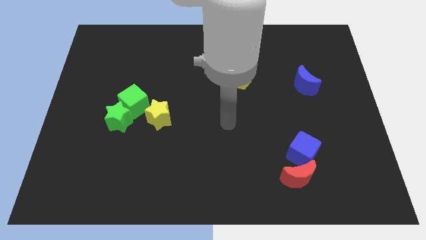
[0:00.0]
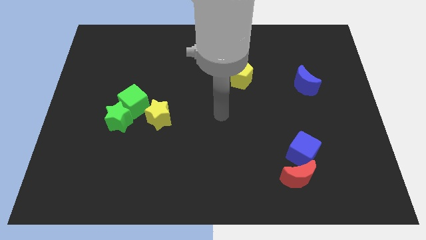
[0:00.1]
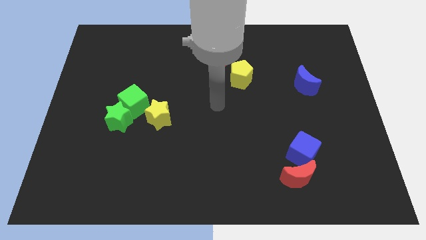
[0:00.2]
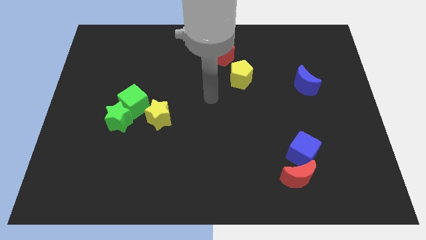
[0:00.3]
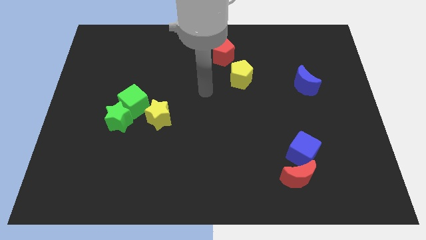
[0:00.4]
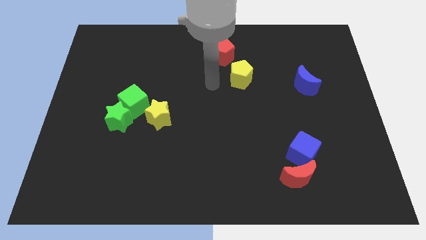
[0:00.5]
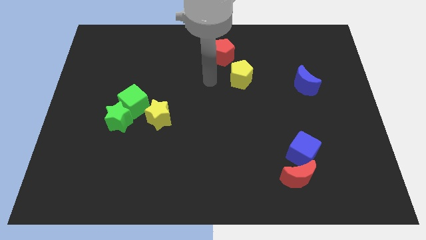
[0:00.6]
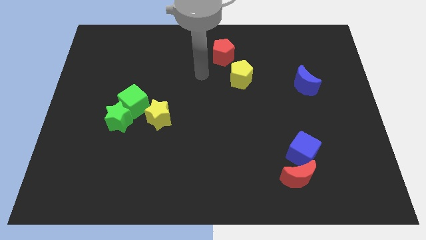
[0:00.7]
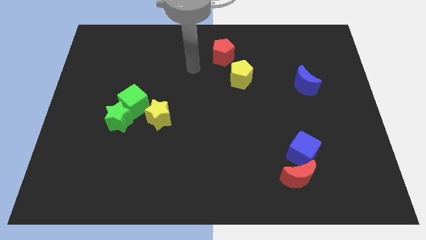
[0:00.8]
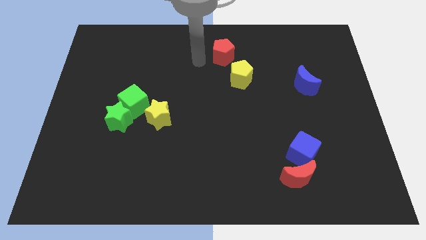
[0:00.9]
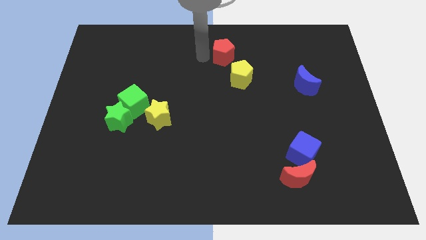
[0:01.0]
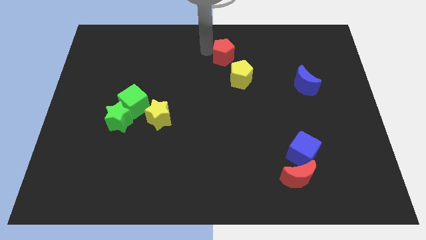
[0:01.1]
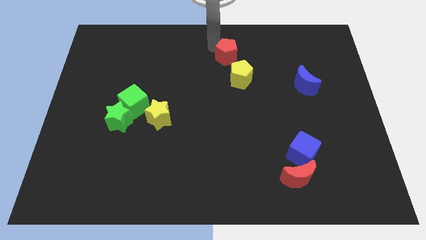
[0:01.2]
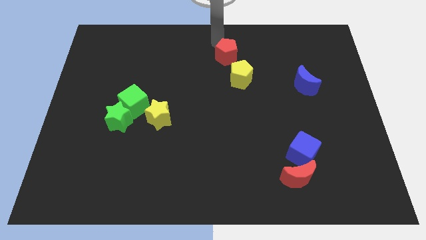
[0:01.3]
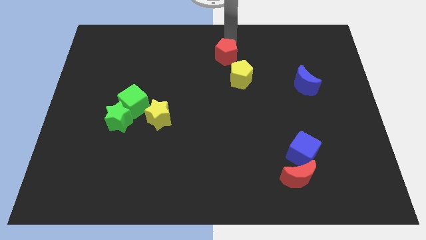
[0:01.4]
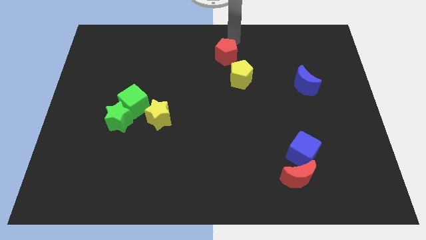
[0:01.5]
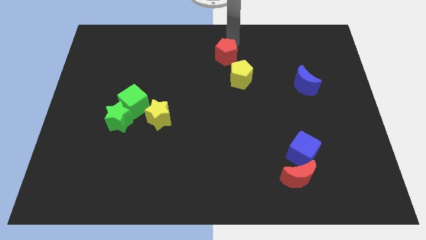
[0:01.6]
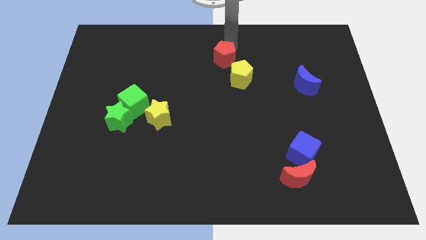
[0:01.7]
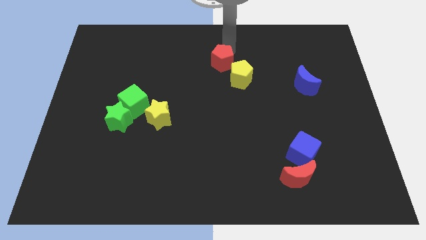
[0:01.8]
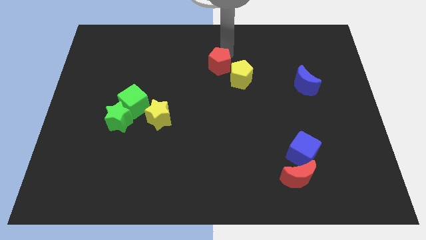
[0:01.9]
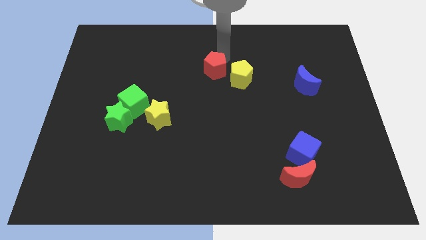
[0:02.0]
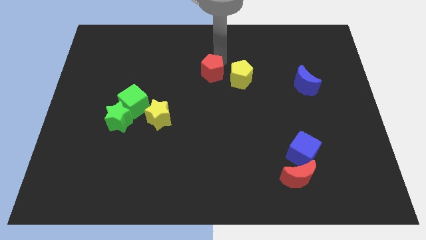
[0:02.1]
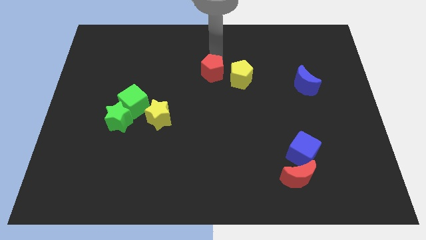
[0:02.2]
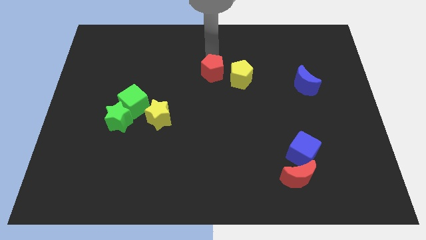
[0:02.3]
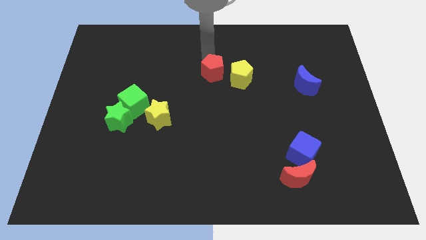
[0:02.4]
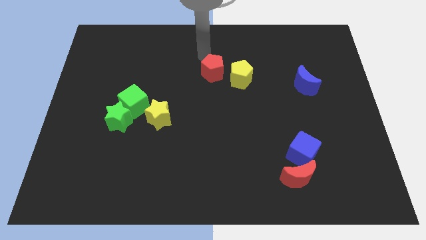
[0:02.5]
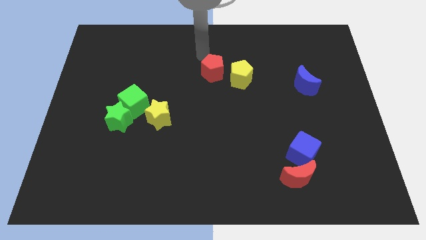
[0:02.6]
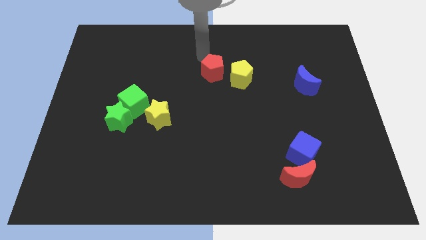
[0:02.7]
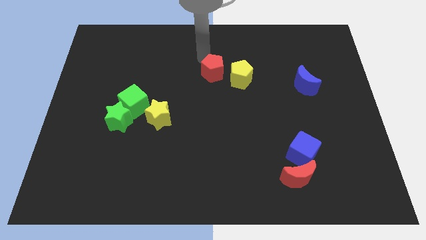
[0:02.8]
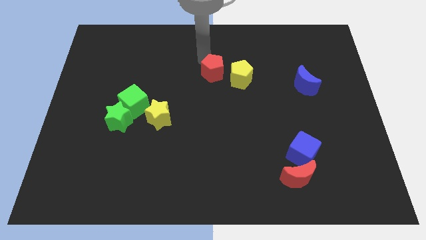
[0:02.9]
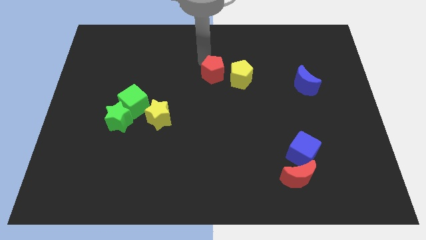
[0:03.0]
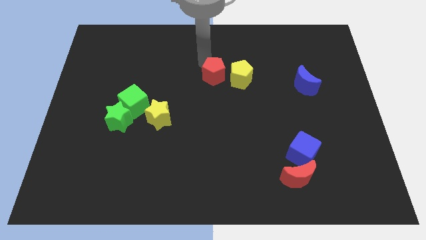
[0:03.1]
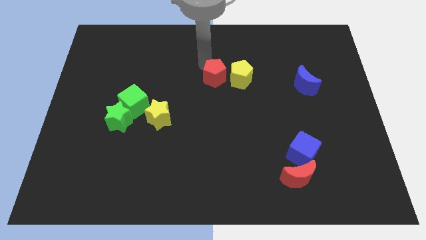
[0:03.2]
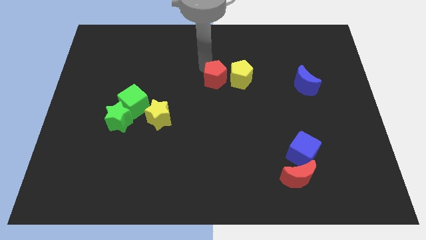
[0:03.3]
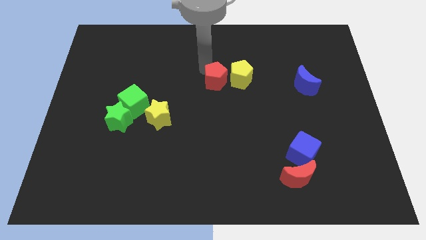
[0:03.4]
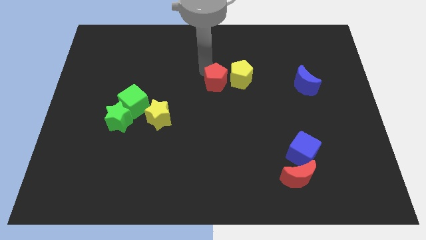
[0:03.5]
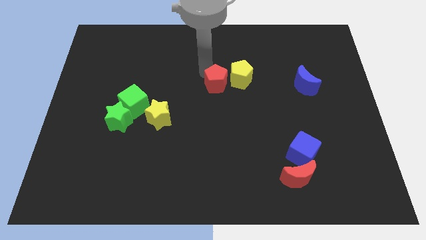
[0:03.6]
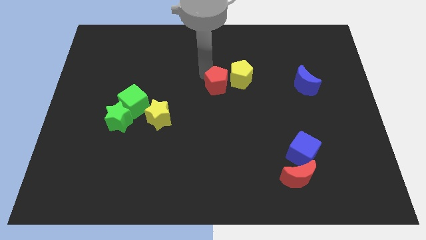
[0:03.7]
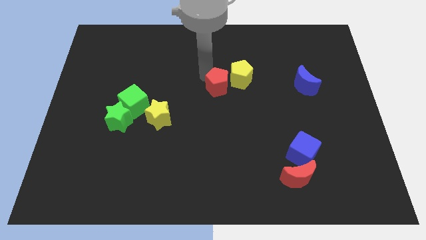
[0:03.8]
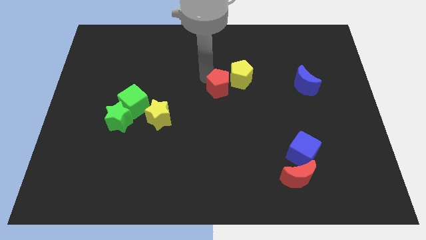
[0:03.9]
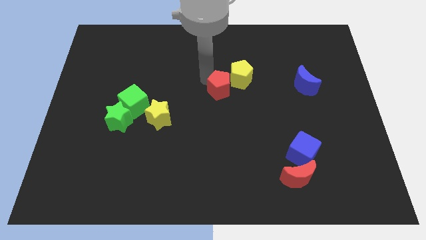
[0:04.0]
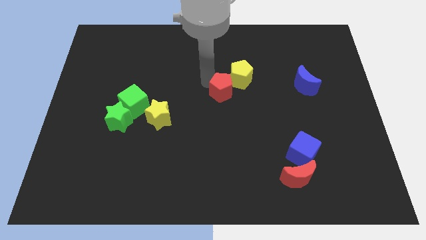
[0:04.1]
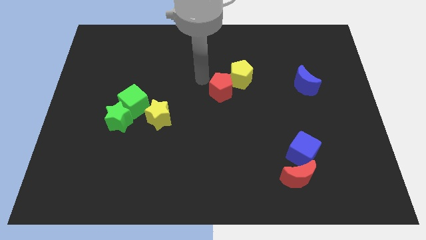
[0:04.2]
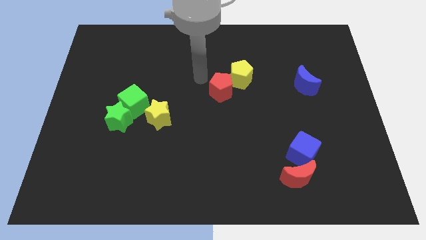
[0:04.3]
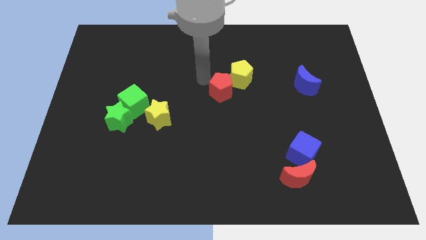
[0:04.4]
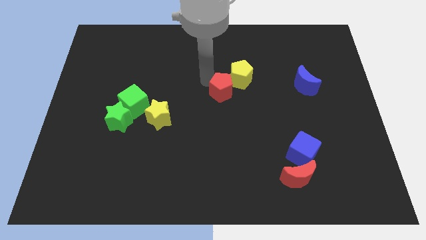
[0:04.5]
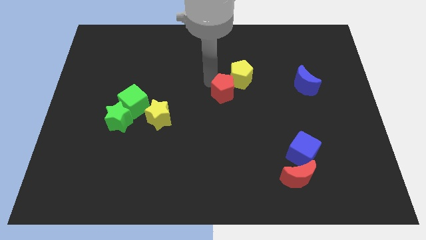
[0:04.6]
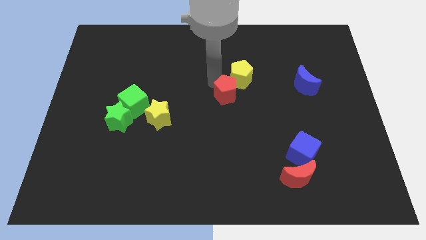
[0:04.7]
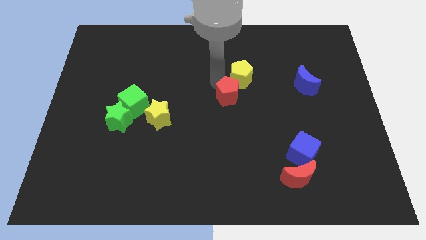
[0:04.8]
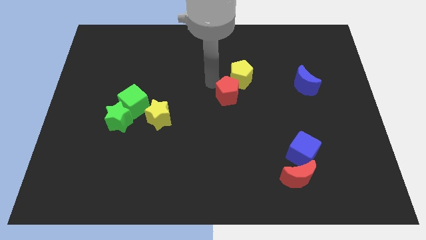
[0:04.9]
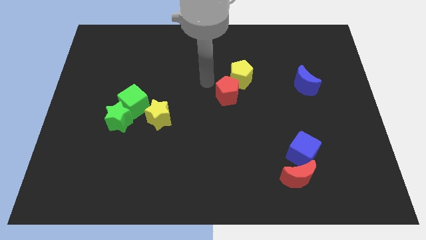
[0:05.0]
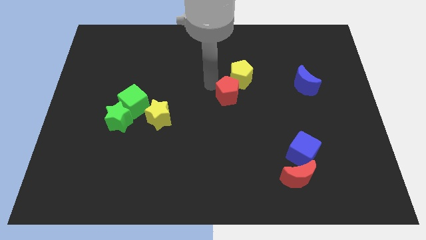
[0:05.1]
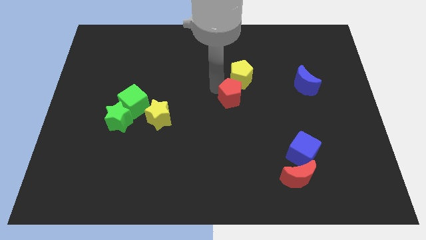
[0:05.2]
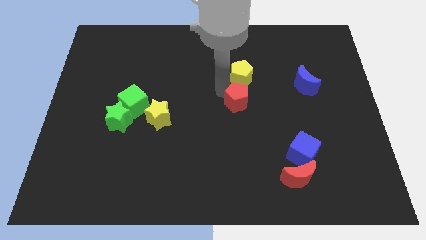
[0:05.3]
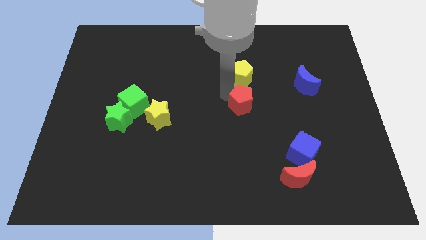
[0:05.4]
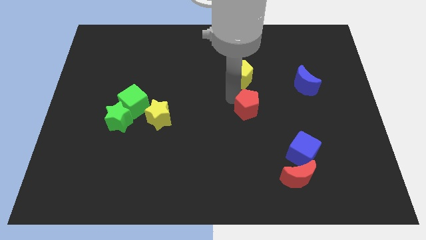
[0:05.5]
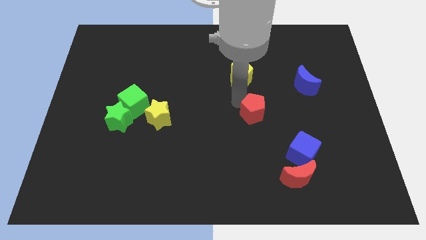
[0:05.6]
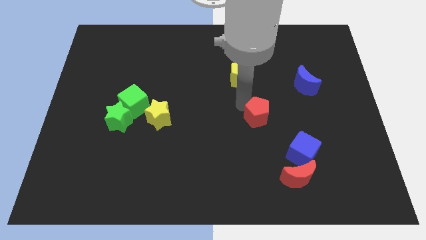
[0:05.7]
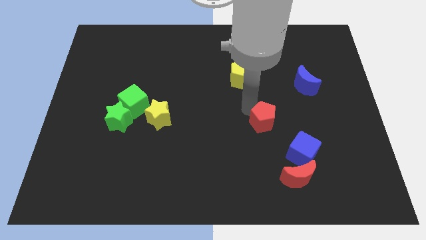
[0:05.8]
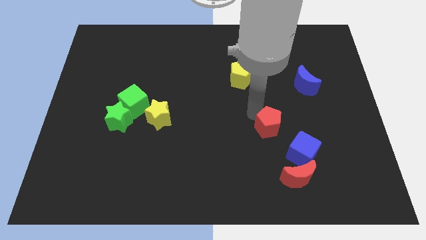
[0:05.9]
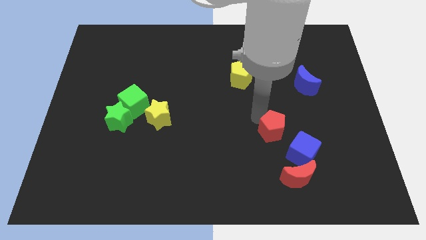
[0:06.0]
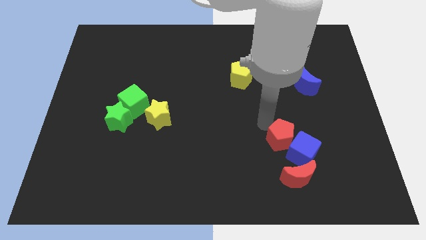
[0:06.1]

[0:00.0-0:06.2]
move the red pentagon next to the blue cube
